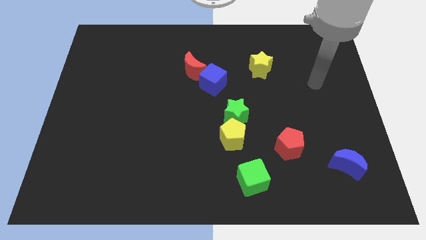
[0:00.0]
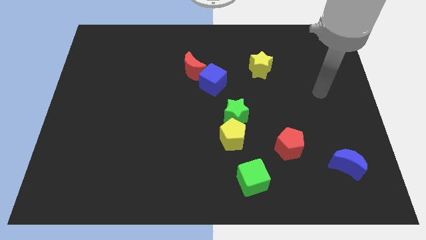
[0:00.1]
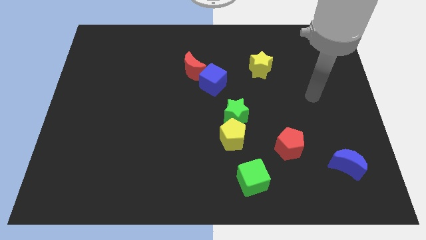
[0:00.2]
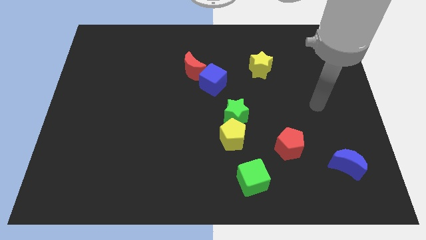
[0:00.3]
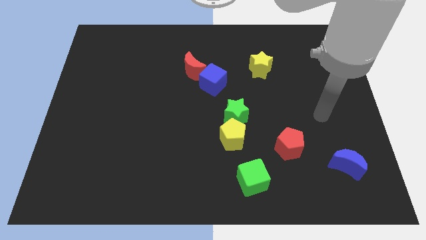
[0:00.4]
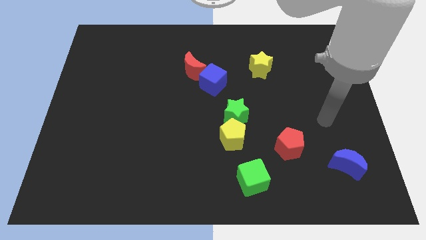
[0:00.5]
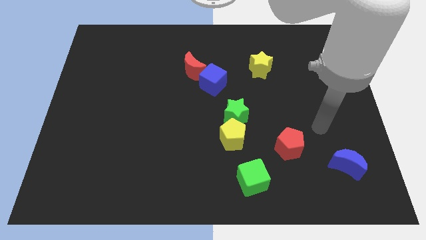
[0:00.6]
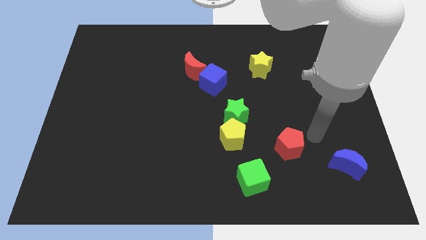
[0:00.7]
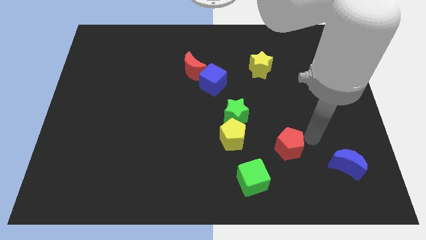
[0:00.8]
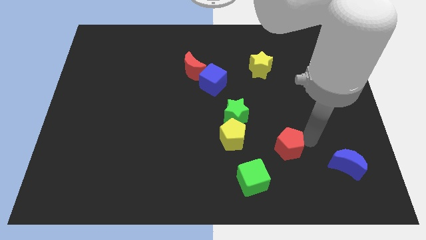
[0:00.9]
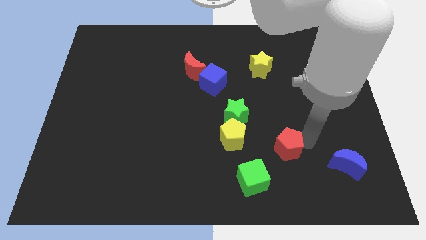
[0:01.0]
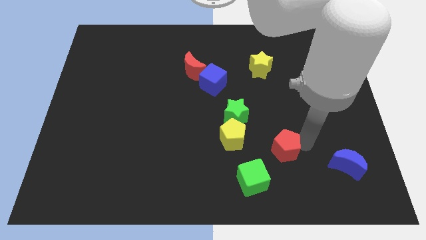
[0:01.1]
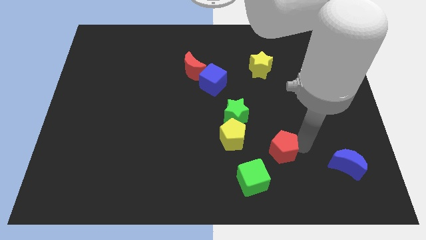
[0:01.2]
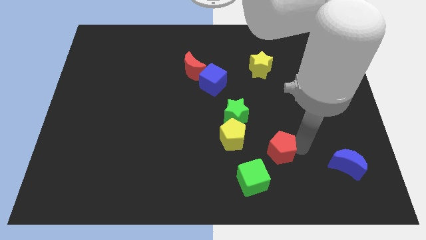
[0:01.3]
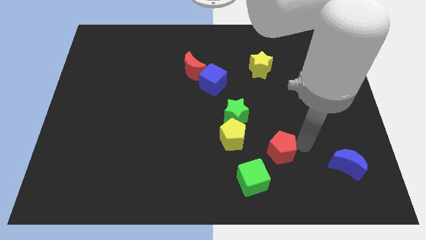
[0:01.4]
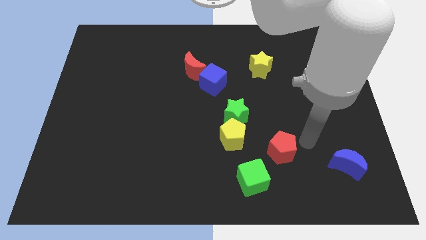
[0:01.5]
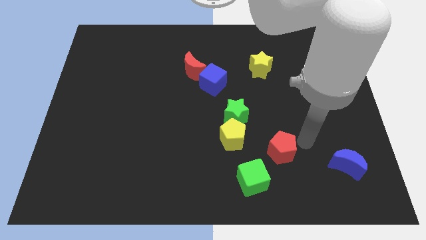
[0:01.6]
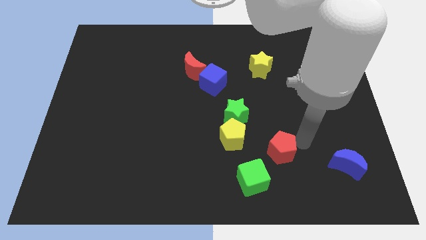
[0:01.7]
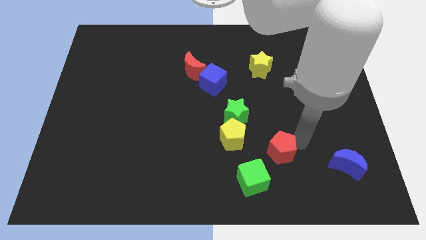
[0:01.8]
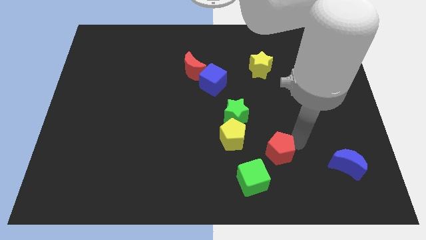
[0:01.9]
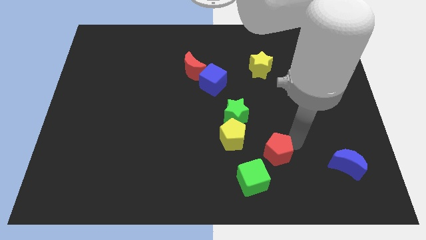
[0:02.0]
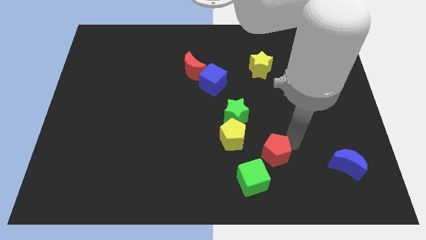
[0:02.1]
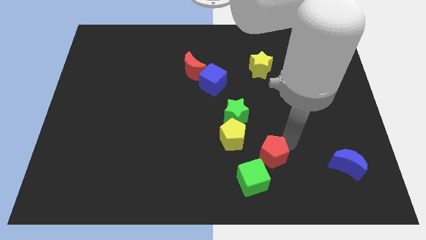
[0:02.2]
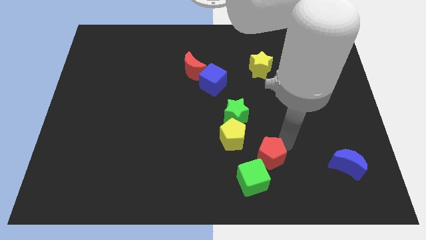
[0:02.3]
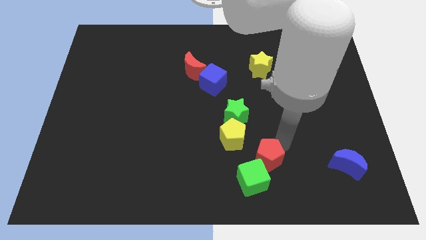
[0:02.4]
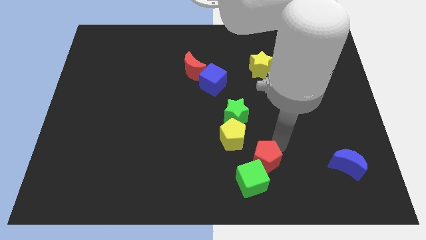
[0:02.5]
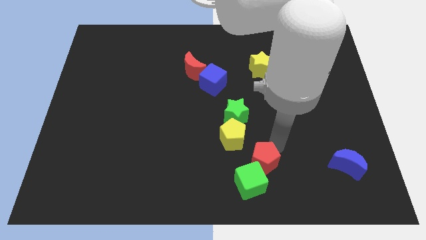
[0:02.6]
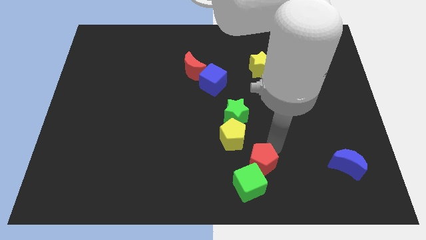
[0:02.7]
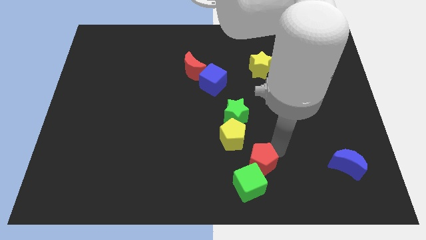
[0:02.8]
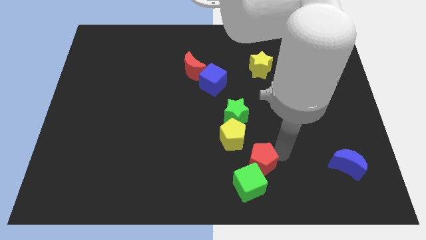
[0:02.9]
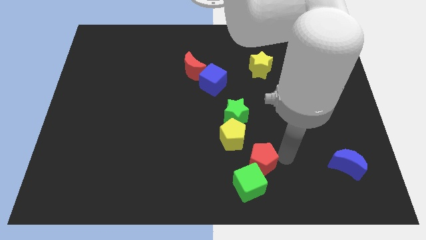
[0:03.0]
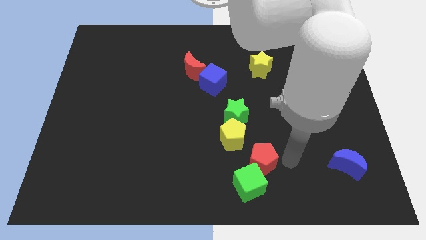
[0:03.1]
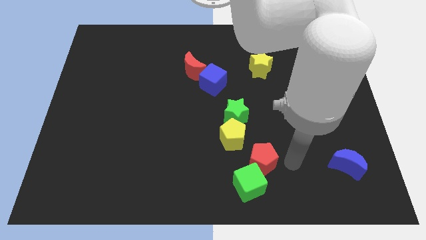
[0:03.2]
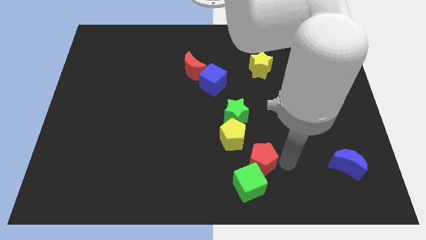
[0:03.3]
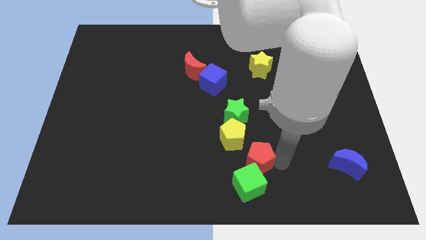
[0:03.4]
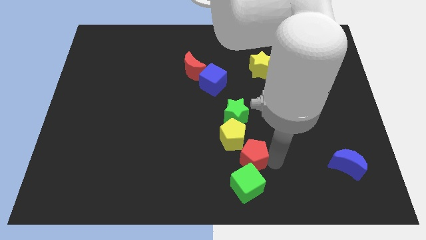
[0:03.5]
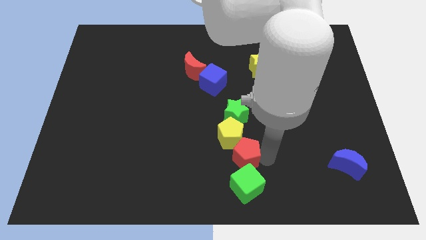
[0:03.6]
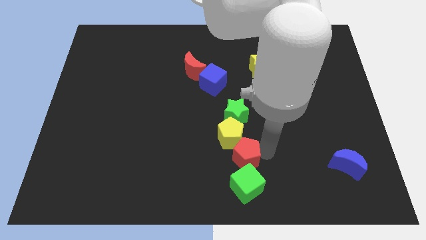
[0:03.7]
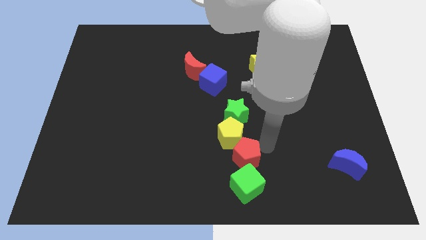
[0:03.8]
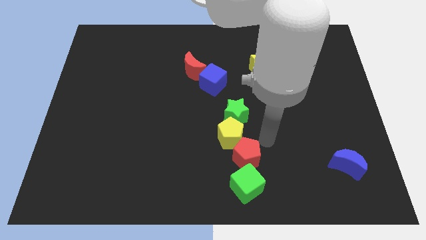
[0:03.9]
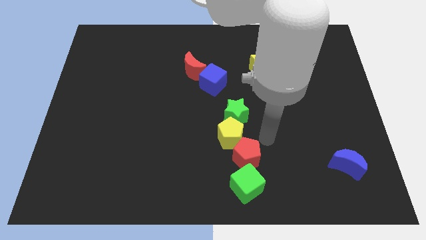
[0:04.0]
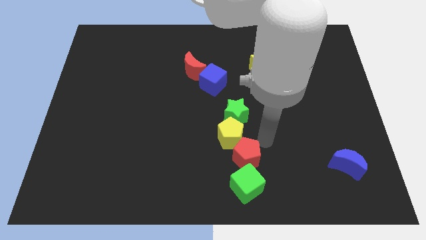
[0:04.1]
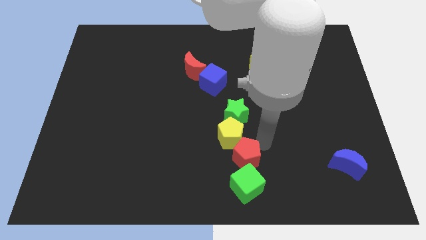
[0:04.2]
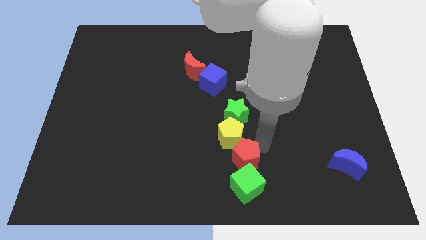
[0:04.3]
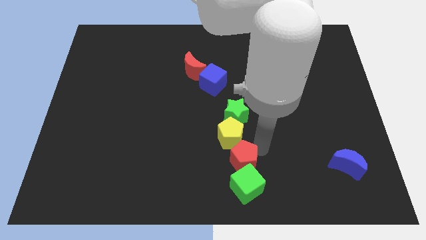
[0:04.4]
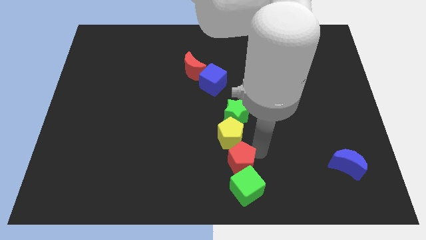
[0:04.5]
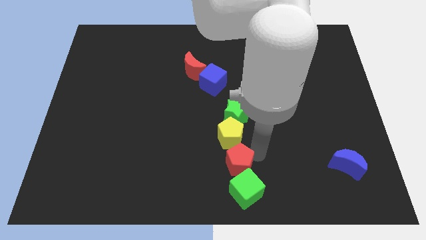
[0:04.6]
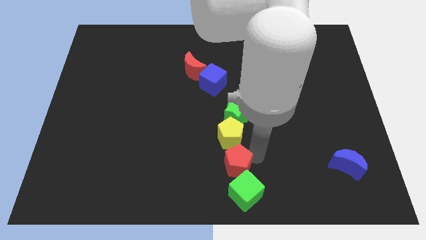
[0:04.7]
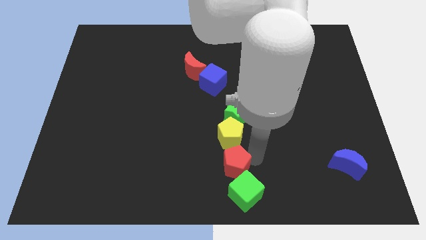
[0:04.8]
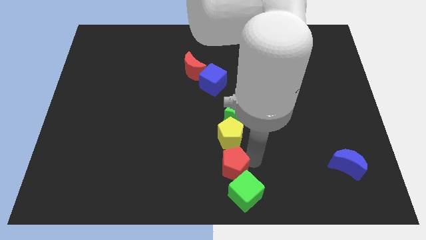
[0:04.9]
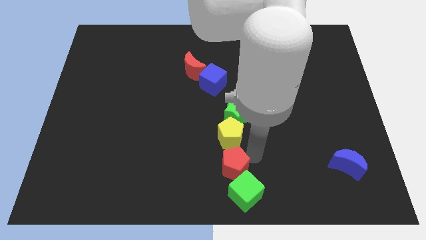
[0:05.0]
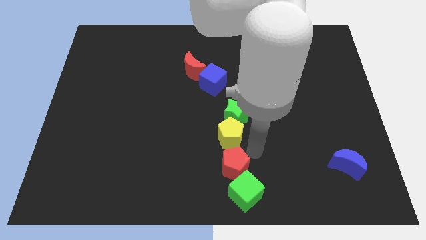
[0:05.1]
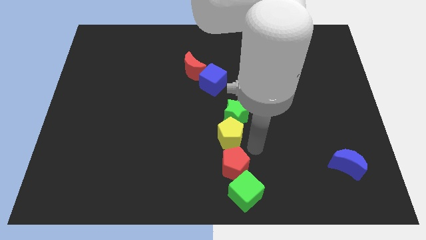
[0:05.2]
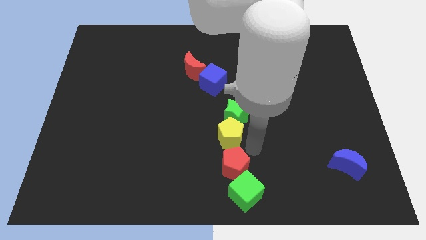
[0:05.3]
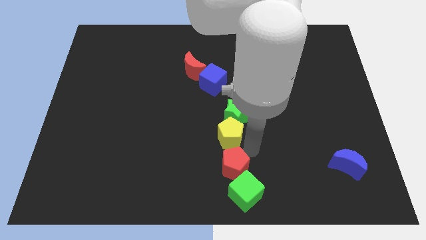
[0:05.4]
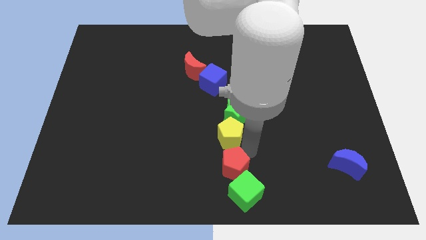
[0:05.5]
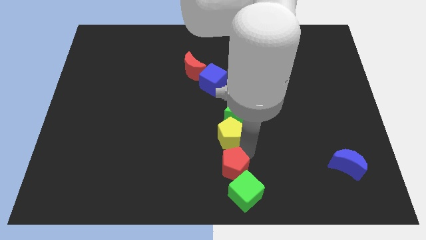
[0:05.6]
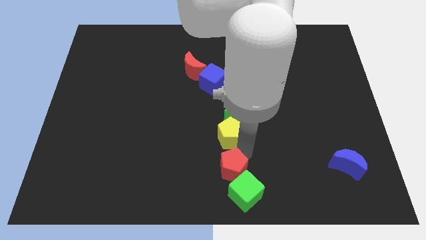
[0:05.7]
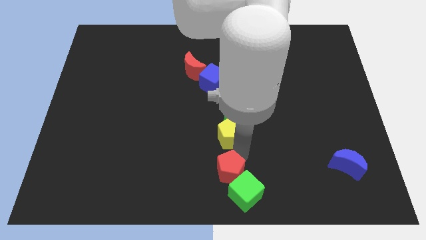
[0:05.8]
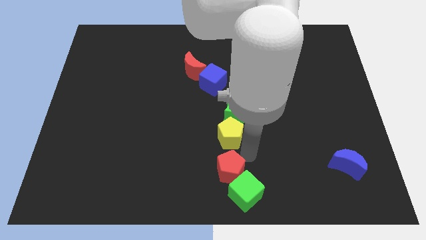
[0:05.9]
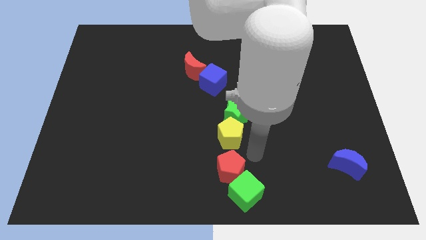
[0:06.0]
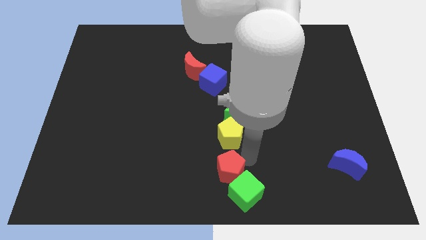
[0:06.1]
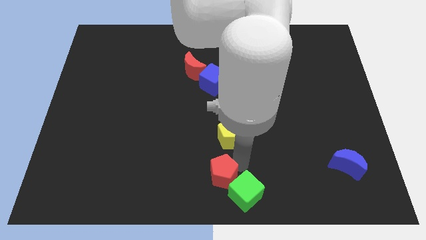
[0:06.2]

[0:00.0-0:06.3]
put the red pentagon left of the green cube

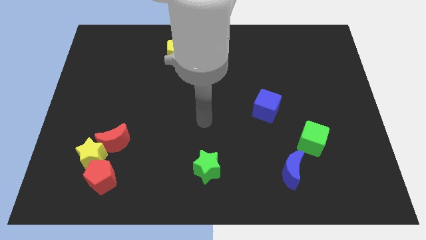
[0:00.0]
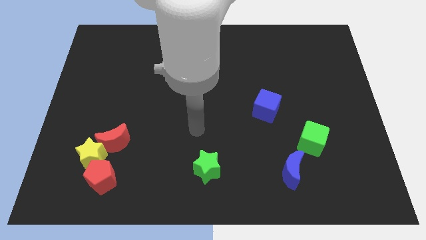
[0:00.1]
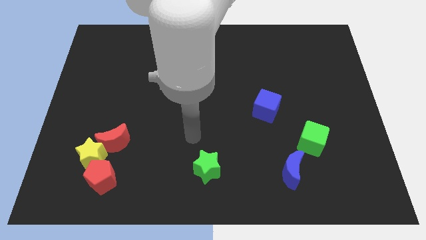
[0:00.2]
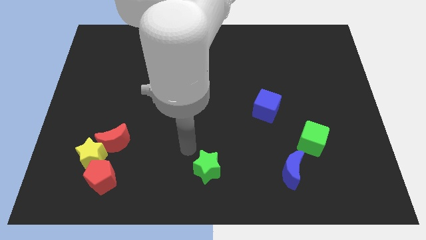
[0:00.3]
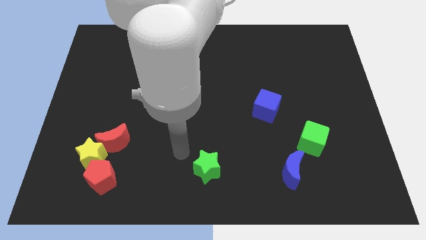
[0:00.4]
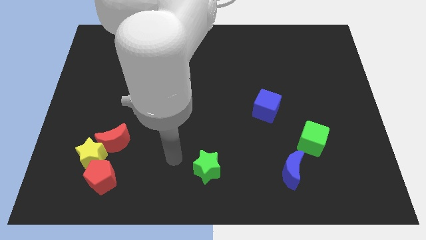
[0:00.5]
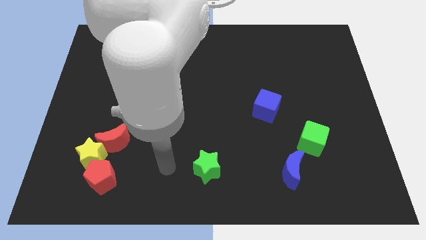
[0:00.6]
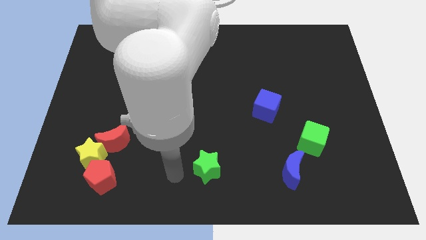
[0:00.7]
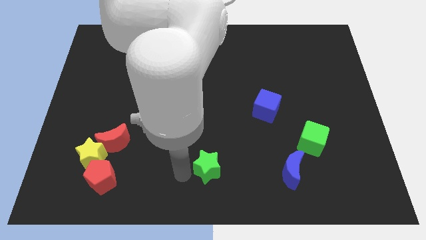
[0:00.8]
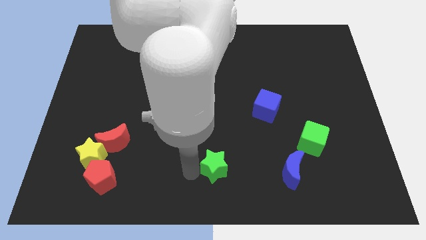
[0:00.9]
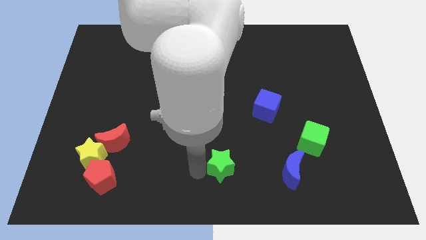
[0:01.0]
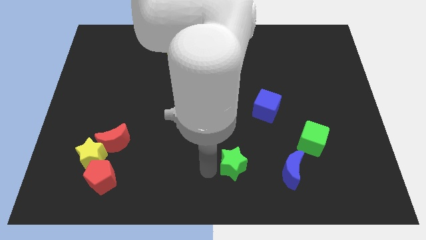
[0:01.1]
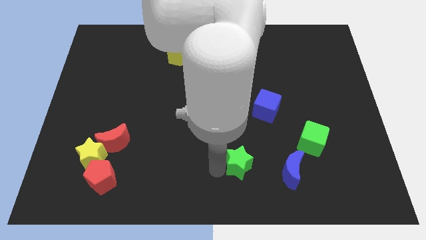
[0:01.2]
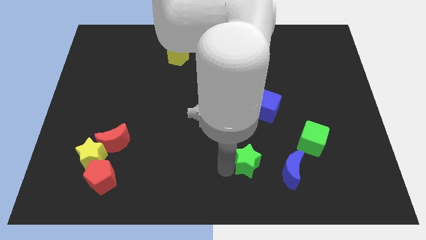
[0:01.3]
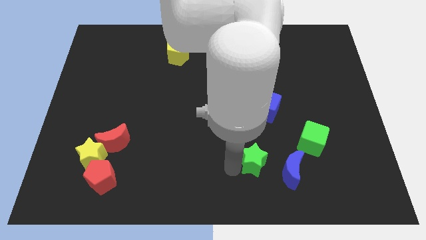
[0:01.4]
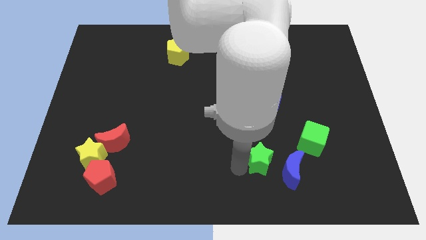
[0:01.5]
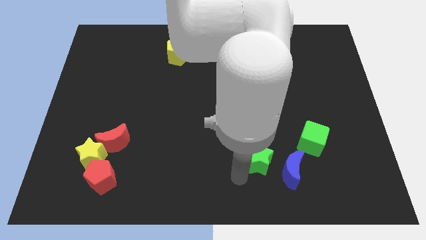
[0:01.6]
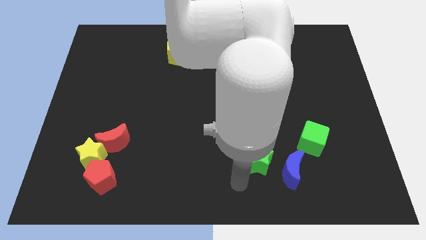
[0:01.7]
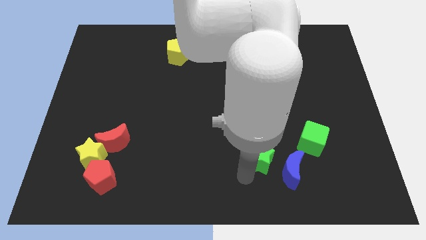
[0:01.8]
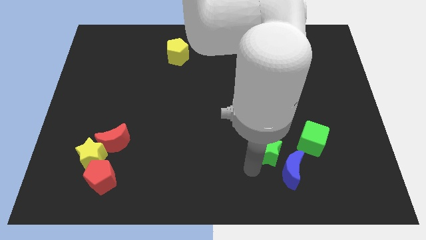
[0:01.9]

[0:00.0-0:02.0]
move the green star above the blue moon
